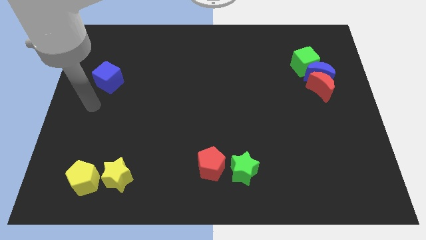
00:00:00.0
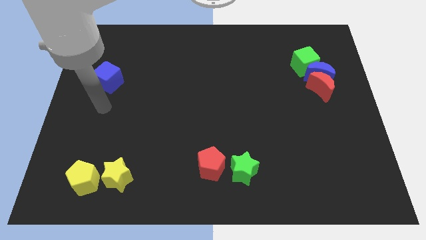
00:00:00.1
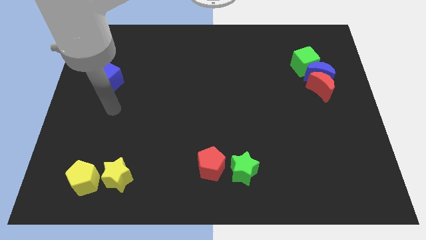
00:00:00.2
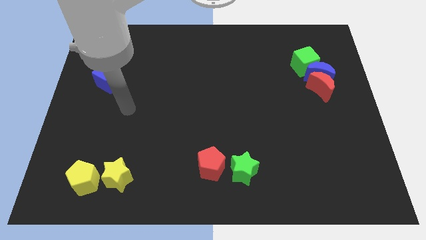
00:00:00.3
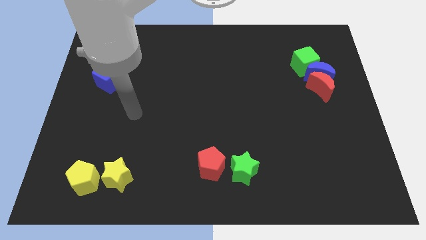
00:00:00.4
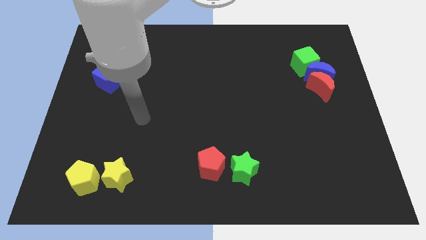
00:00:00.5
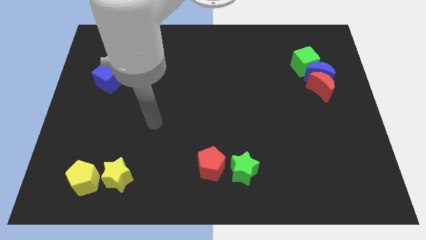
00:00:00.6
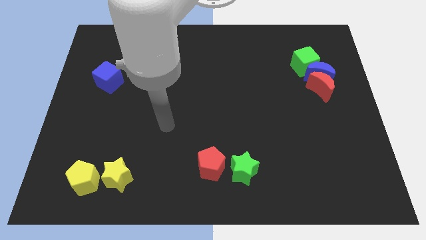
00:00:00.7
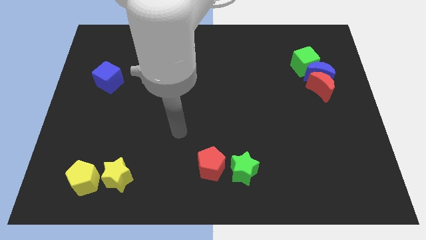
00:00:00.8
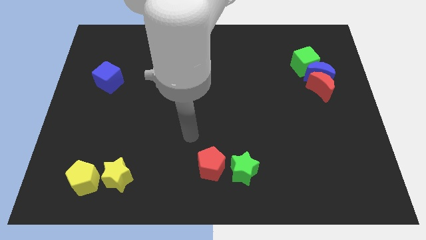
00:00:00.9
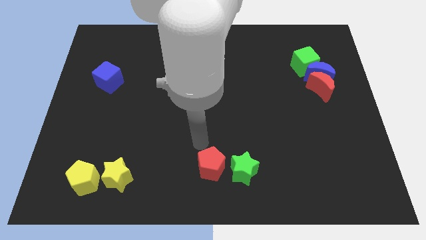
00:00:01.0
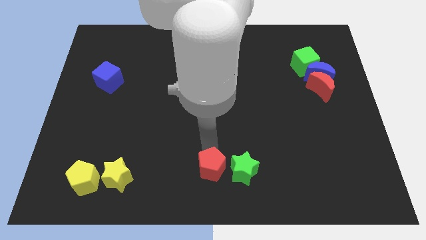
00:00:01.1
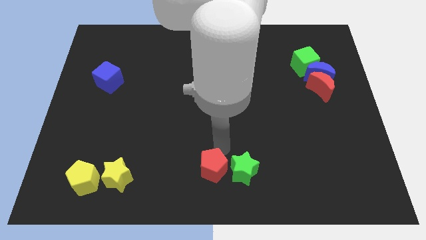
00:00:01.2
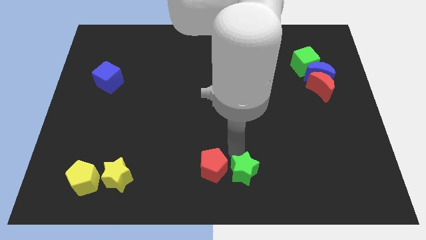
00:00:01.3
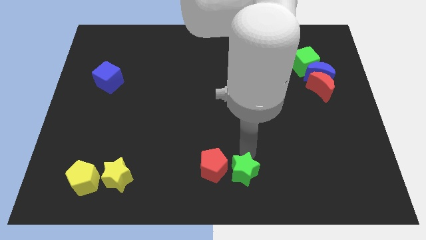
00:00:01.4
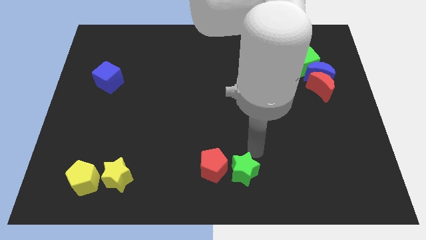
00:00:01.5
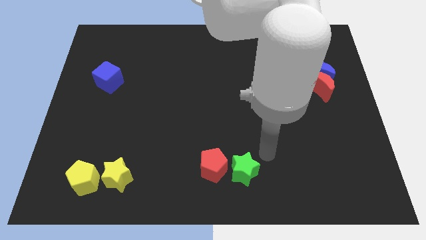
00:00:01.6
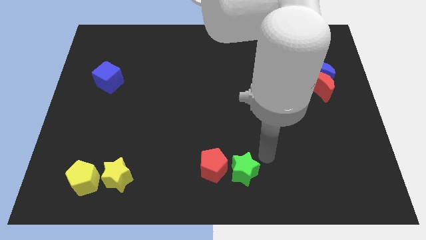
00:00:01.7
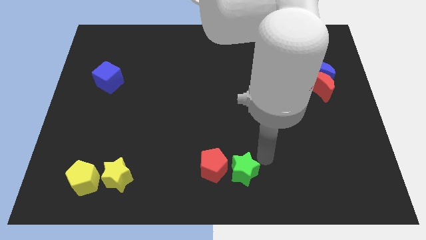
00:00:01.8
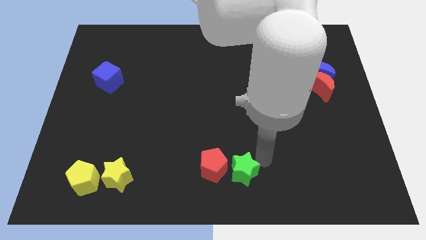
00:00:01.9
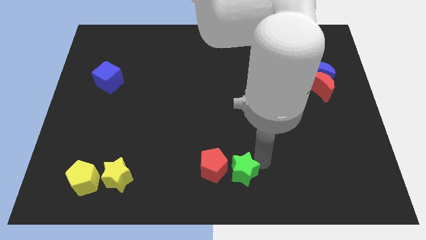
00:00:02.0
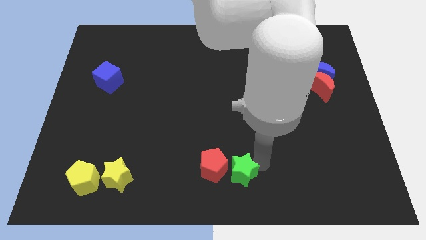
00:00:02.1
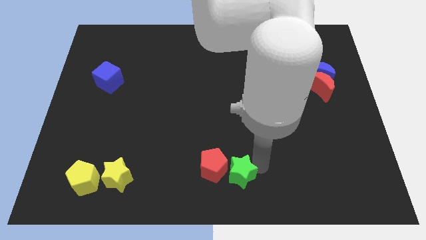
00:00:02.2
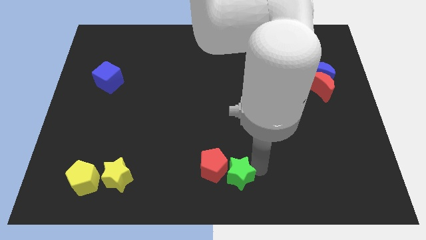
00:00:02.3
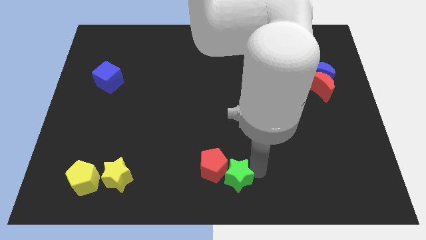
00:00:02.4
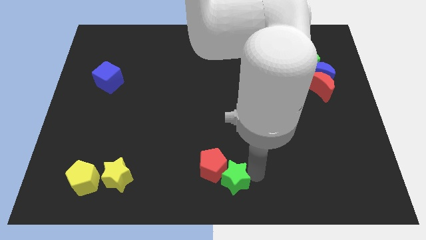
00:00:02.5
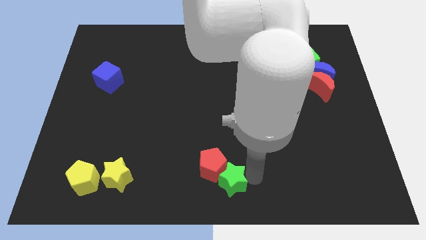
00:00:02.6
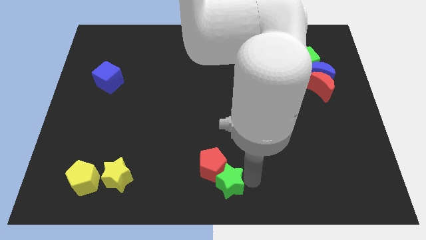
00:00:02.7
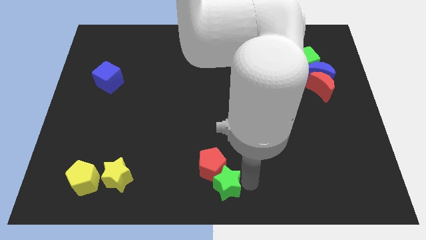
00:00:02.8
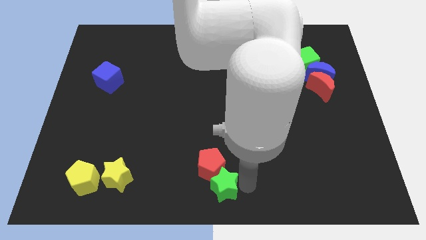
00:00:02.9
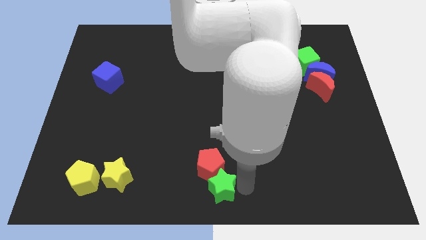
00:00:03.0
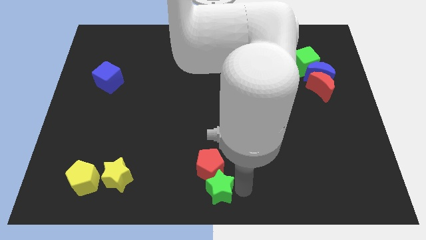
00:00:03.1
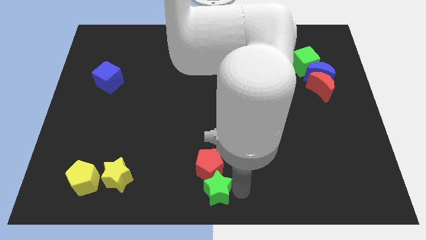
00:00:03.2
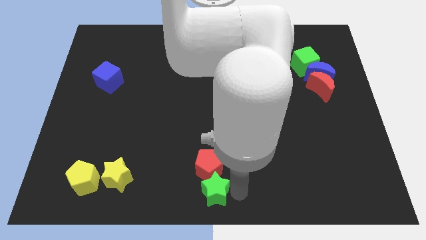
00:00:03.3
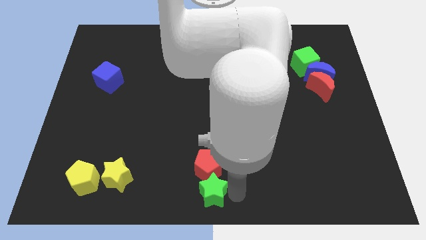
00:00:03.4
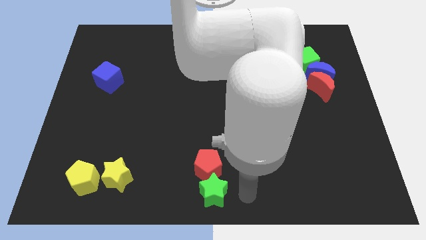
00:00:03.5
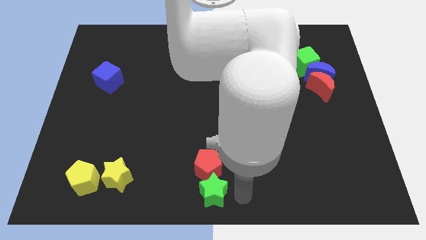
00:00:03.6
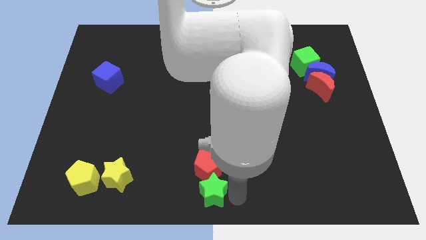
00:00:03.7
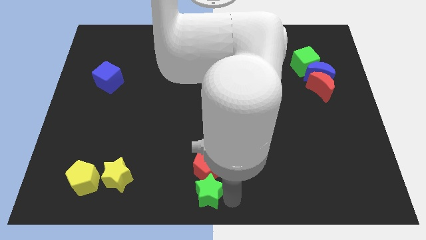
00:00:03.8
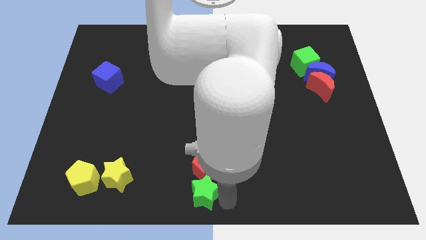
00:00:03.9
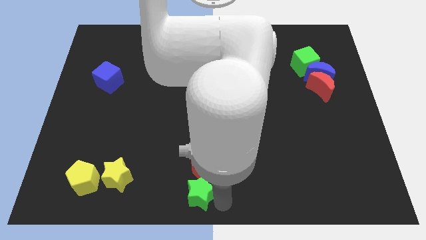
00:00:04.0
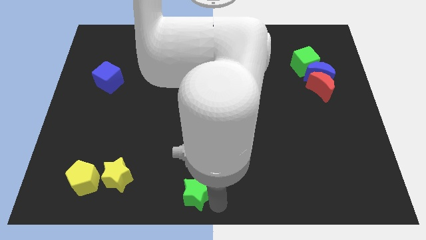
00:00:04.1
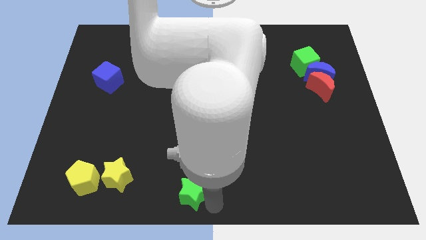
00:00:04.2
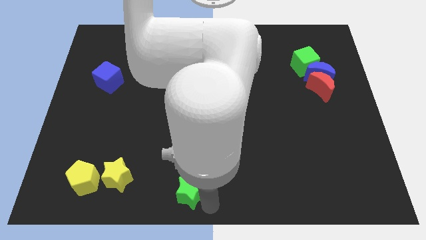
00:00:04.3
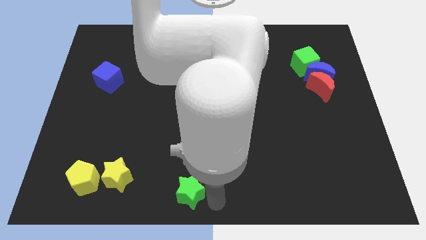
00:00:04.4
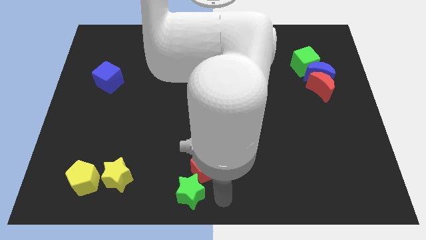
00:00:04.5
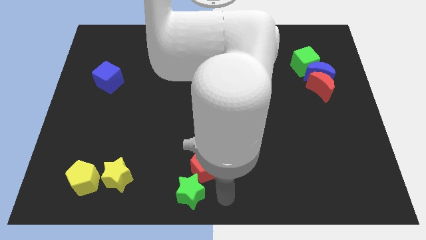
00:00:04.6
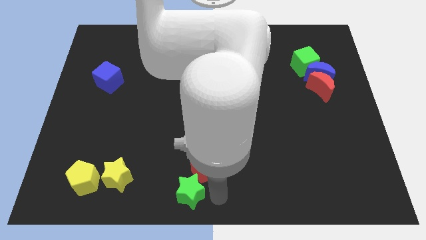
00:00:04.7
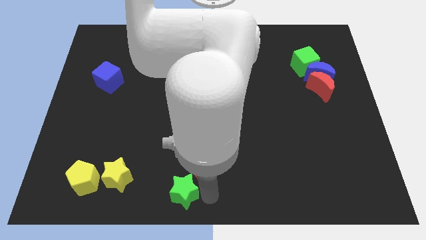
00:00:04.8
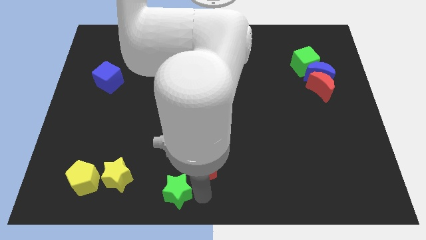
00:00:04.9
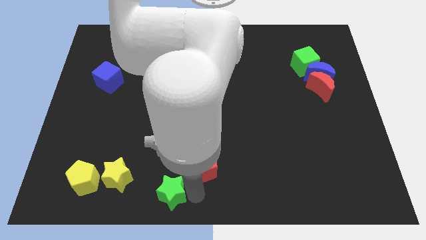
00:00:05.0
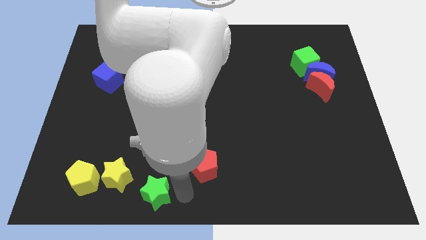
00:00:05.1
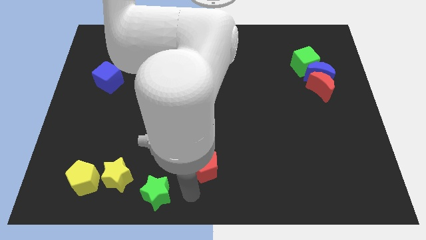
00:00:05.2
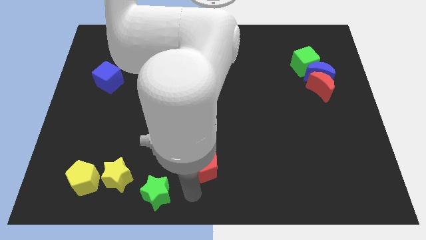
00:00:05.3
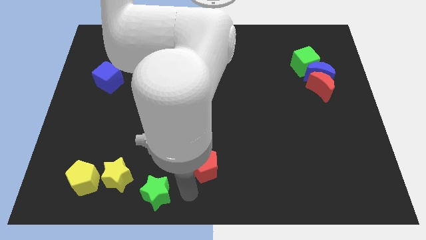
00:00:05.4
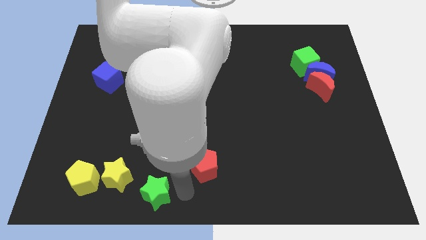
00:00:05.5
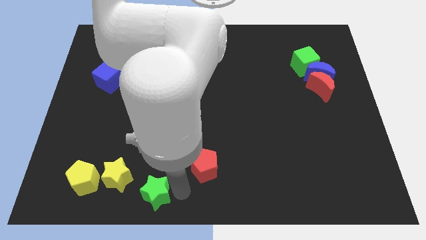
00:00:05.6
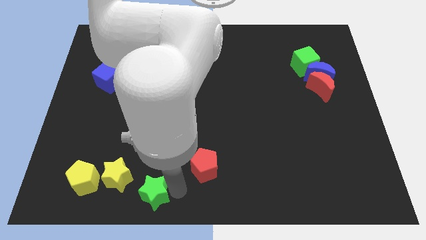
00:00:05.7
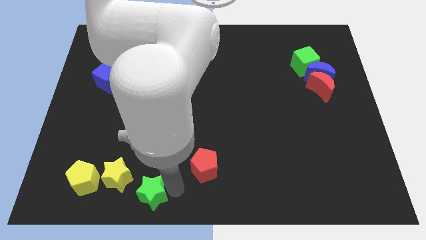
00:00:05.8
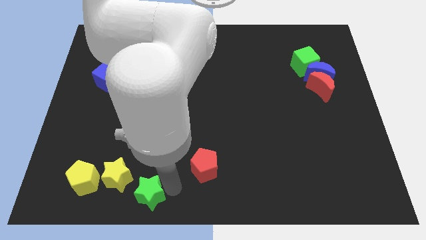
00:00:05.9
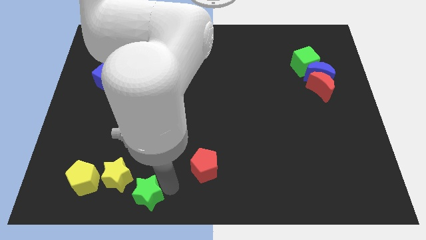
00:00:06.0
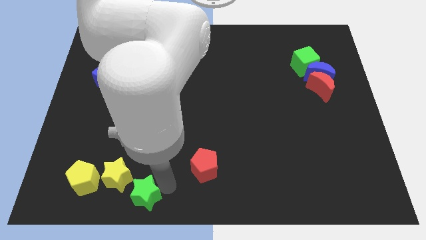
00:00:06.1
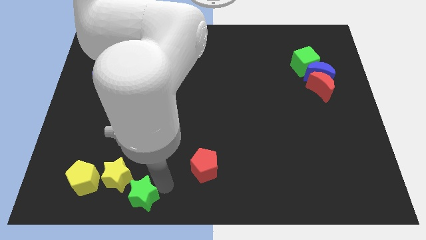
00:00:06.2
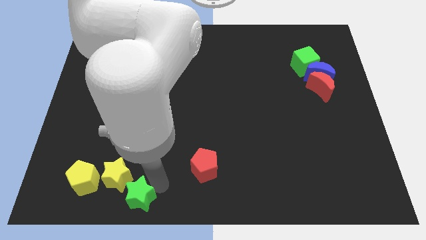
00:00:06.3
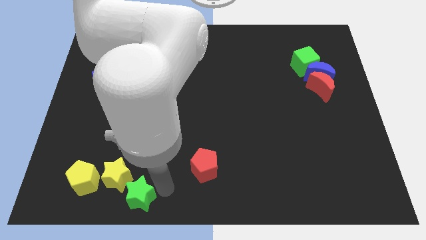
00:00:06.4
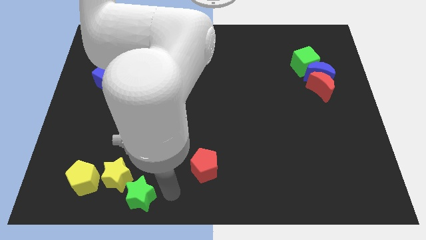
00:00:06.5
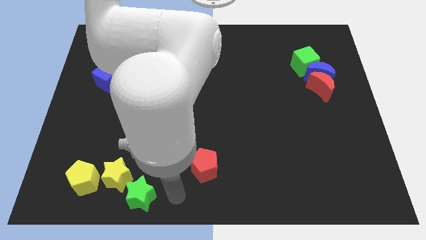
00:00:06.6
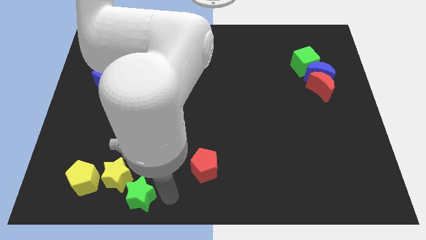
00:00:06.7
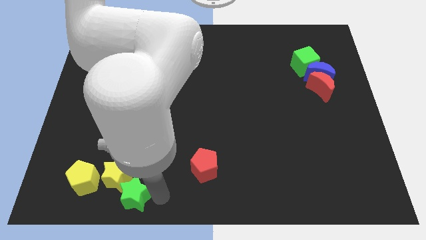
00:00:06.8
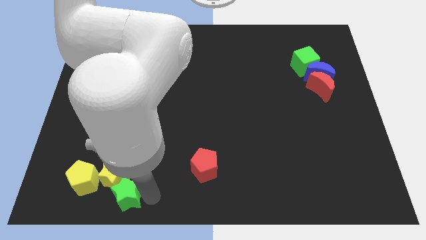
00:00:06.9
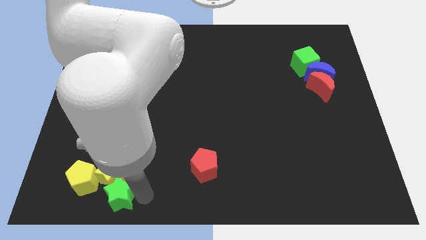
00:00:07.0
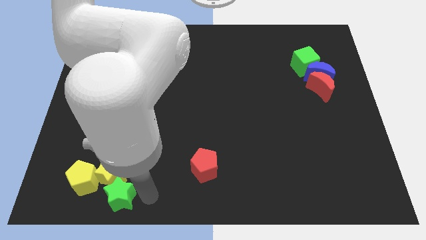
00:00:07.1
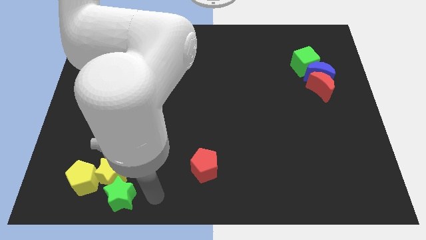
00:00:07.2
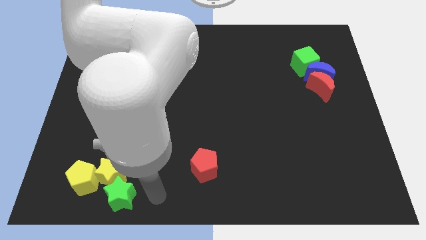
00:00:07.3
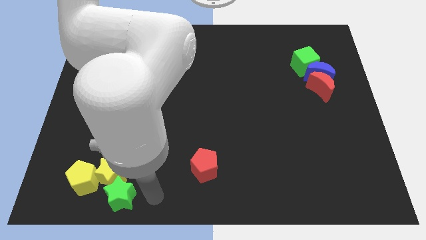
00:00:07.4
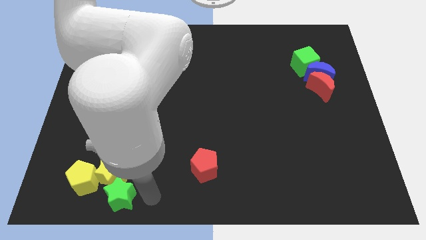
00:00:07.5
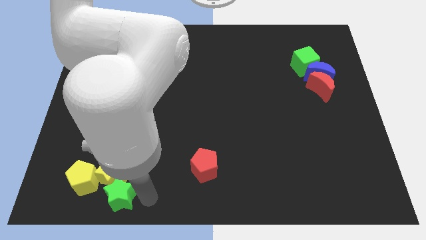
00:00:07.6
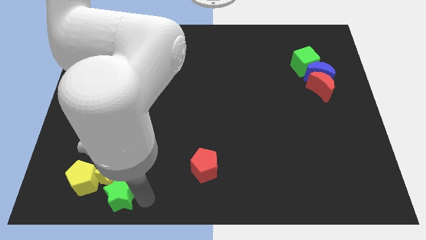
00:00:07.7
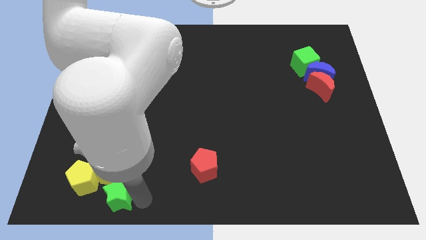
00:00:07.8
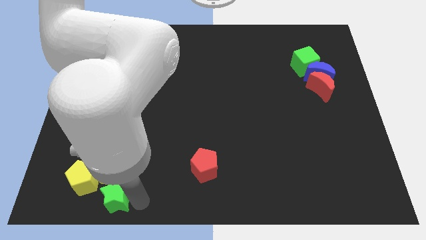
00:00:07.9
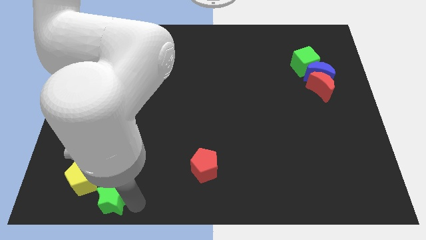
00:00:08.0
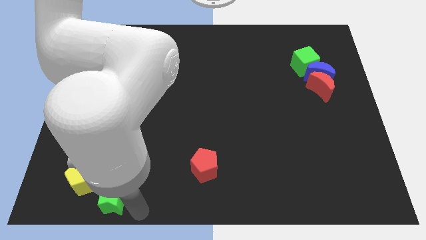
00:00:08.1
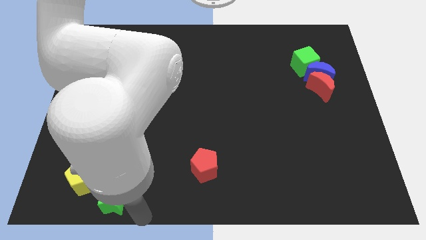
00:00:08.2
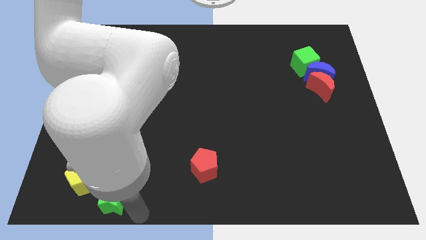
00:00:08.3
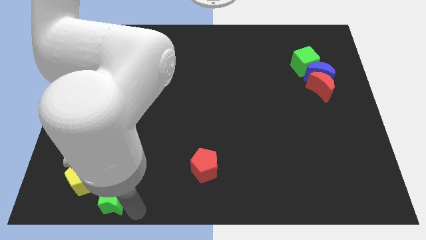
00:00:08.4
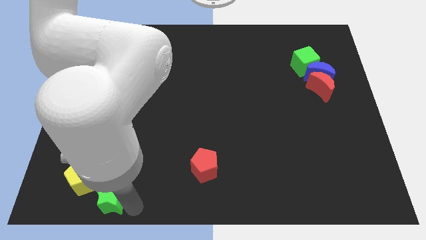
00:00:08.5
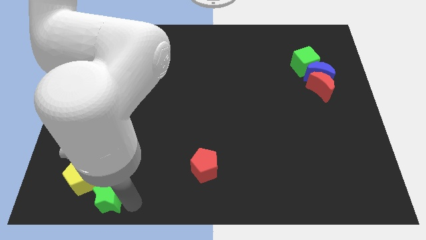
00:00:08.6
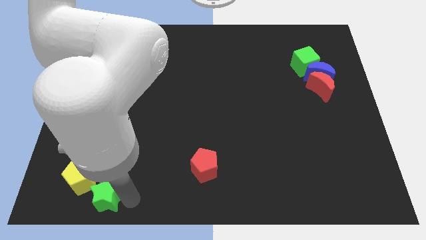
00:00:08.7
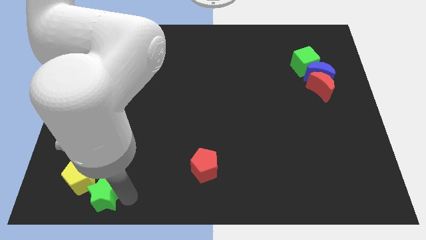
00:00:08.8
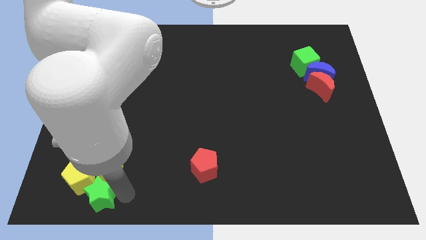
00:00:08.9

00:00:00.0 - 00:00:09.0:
move the green star towards the yellow pentagon
